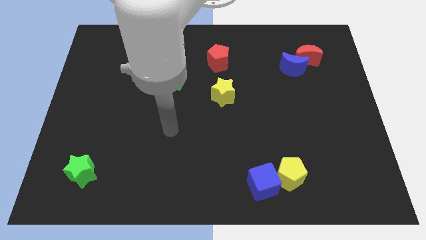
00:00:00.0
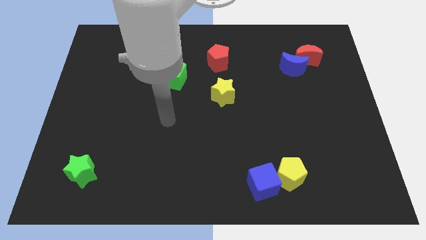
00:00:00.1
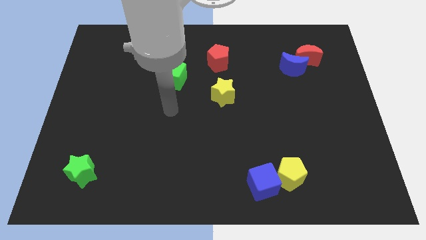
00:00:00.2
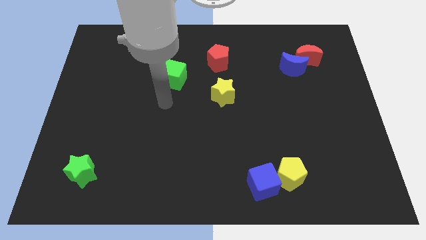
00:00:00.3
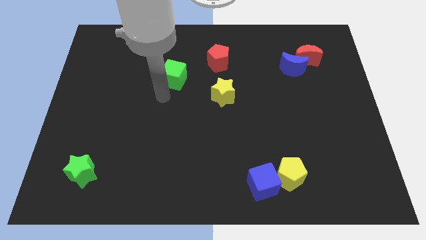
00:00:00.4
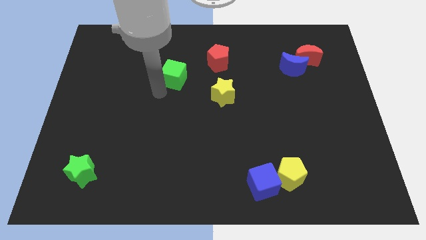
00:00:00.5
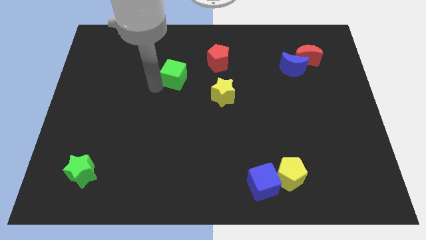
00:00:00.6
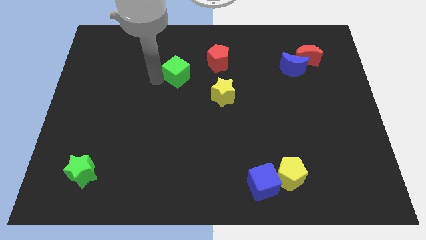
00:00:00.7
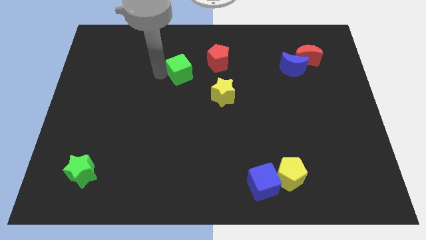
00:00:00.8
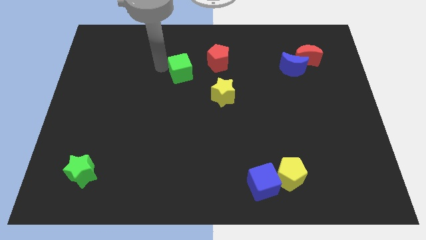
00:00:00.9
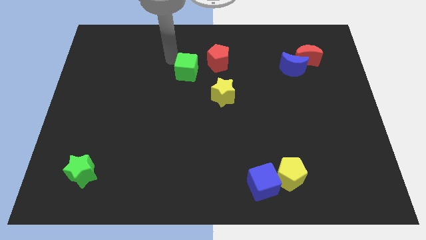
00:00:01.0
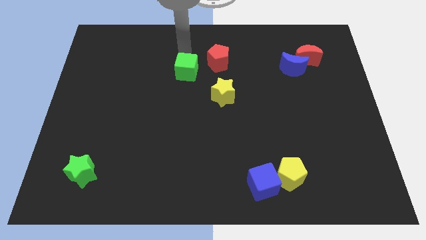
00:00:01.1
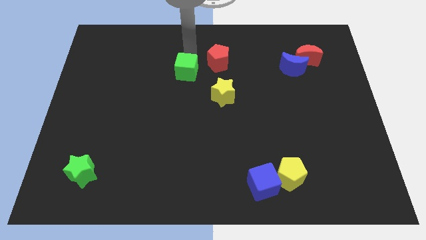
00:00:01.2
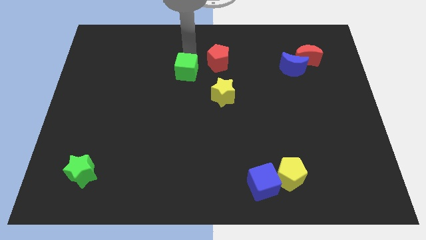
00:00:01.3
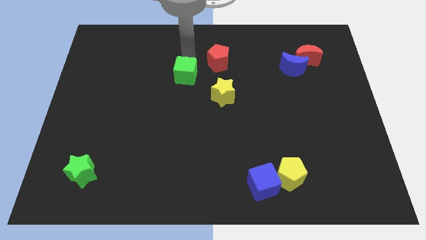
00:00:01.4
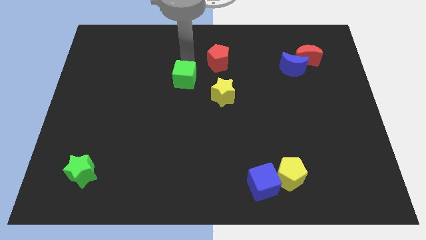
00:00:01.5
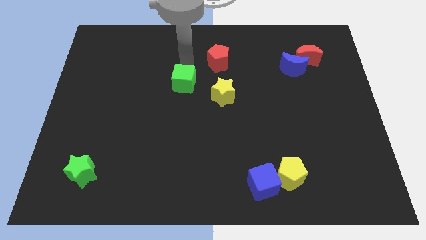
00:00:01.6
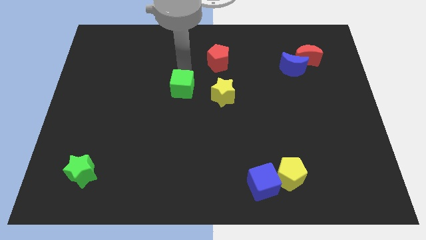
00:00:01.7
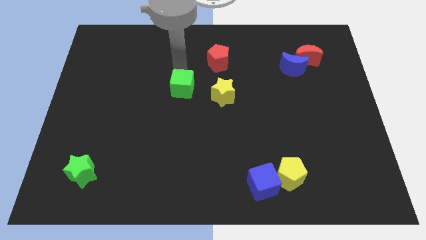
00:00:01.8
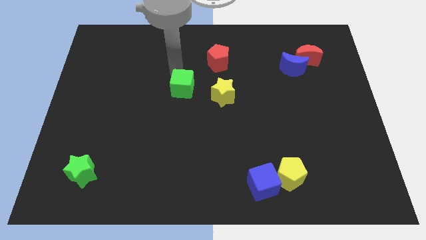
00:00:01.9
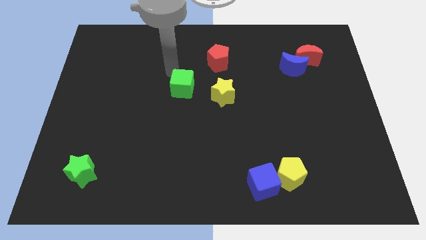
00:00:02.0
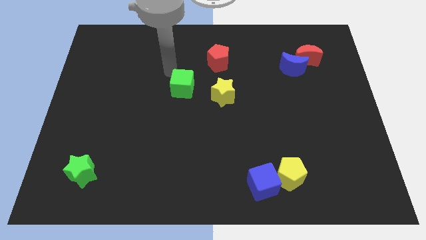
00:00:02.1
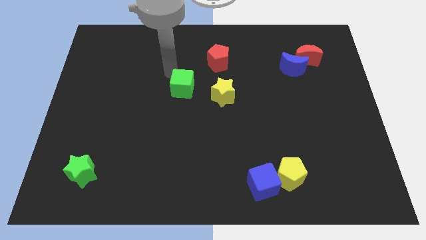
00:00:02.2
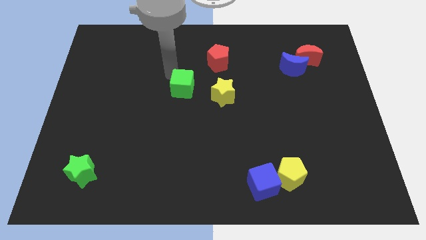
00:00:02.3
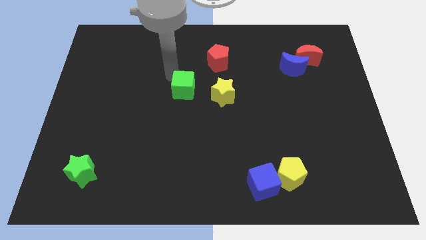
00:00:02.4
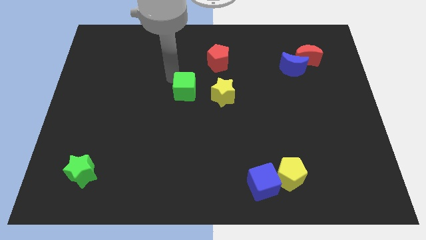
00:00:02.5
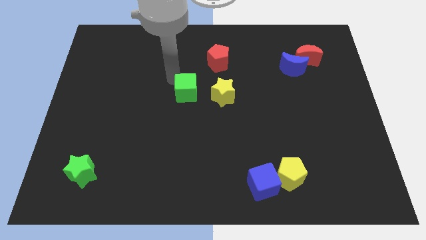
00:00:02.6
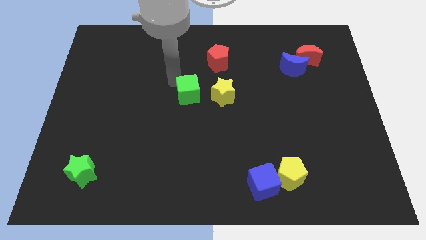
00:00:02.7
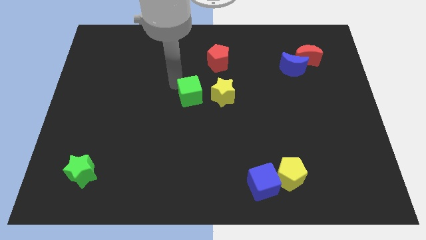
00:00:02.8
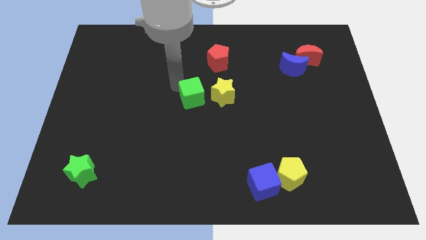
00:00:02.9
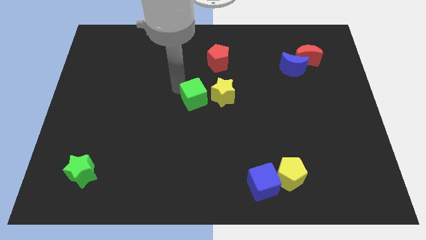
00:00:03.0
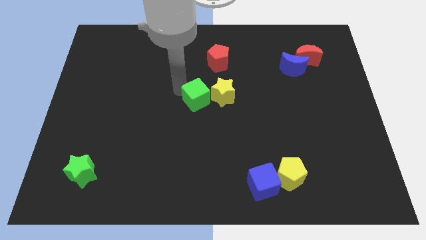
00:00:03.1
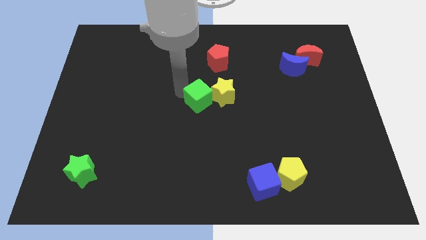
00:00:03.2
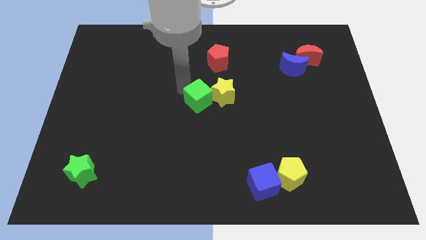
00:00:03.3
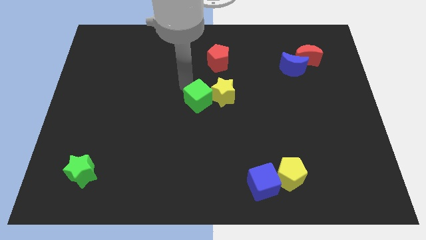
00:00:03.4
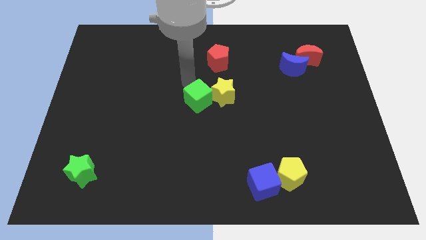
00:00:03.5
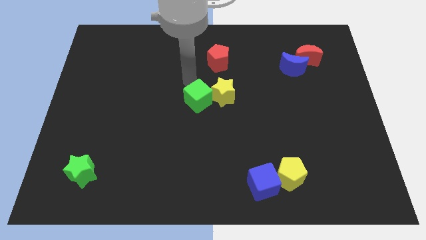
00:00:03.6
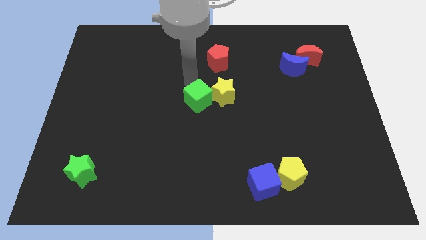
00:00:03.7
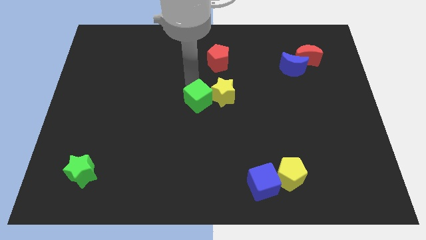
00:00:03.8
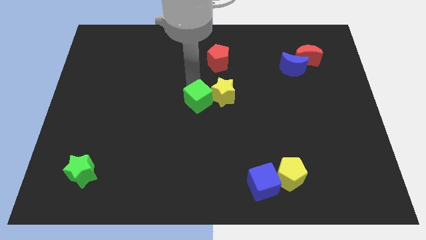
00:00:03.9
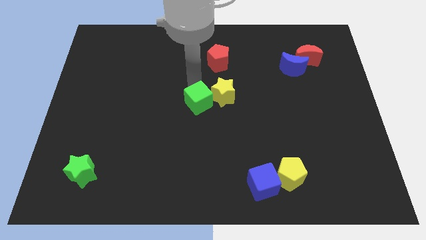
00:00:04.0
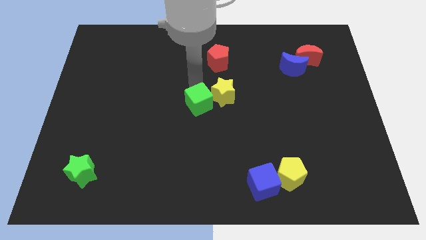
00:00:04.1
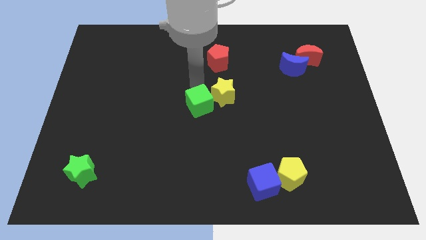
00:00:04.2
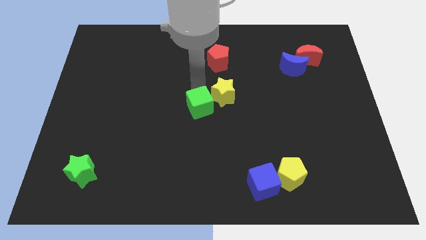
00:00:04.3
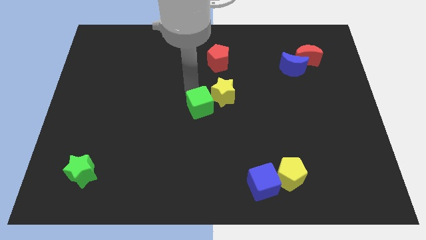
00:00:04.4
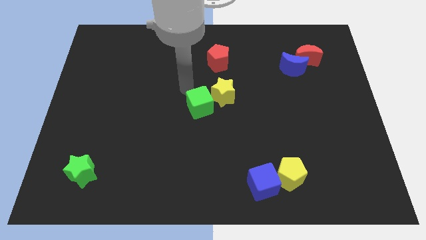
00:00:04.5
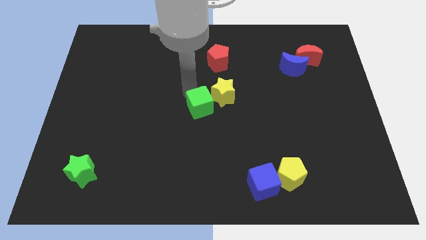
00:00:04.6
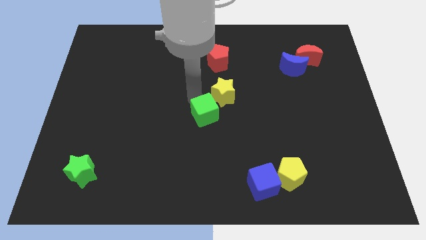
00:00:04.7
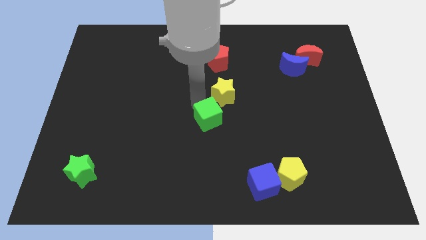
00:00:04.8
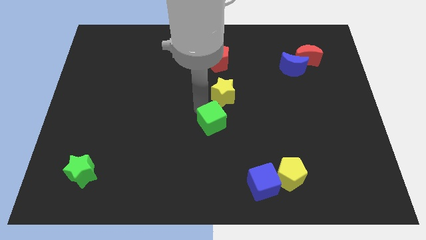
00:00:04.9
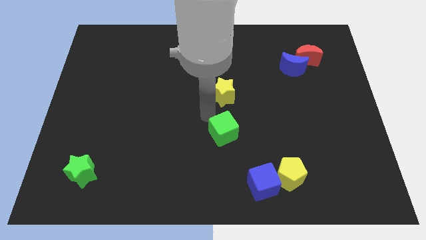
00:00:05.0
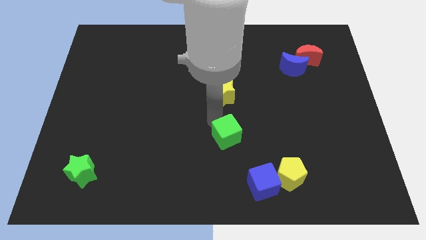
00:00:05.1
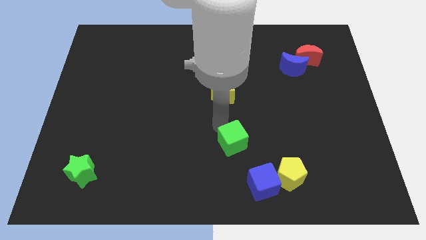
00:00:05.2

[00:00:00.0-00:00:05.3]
put the green cube to the top left of the blue cube

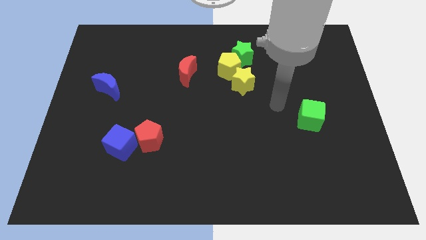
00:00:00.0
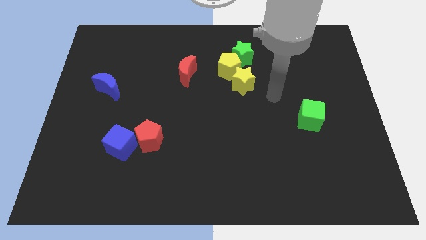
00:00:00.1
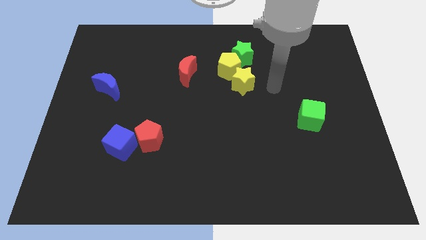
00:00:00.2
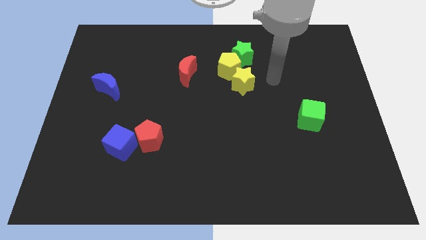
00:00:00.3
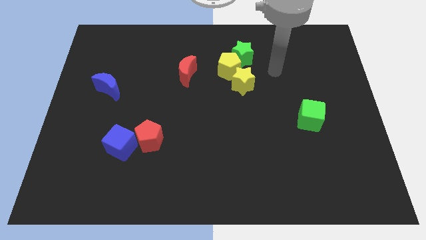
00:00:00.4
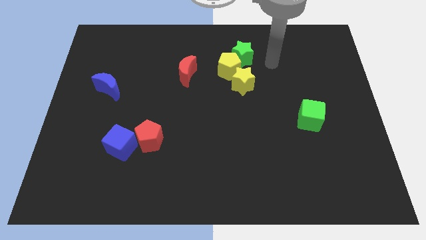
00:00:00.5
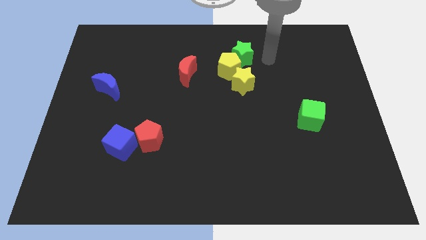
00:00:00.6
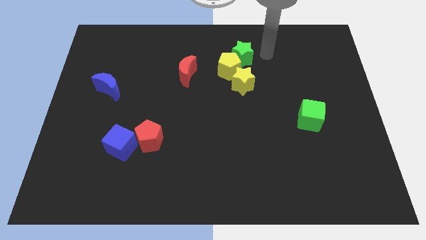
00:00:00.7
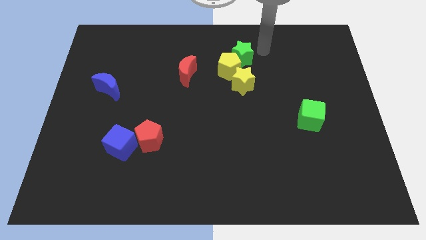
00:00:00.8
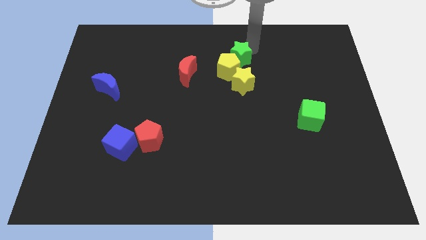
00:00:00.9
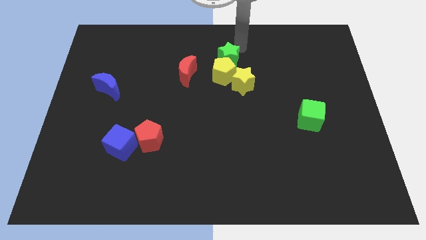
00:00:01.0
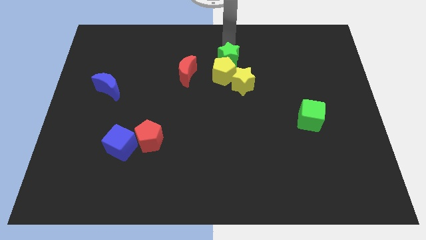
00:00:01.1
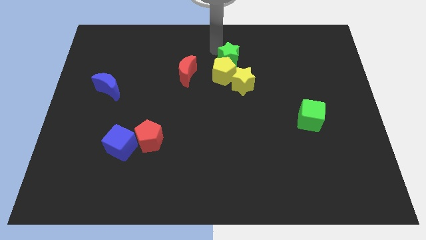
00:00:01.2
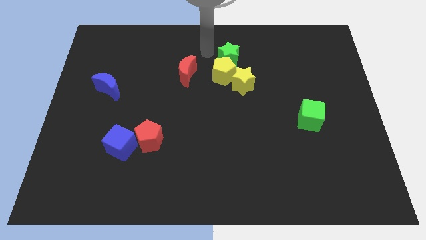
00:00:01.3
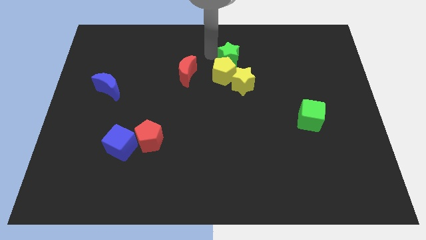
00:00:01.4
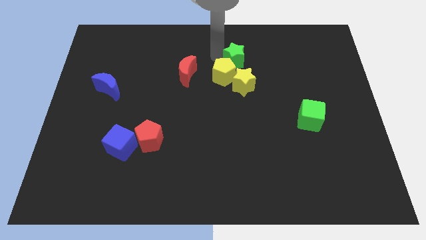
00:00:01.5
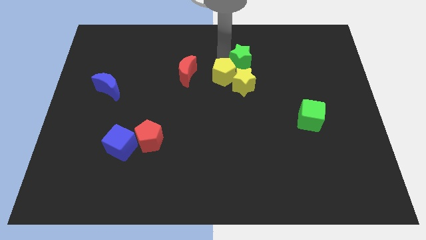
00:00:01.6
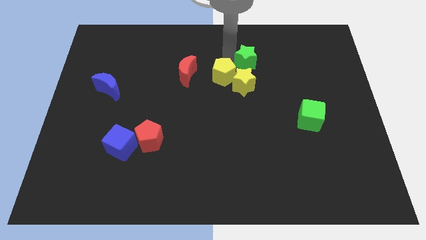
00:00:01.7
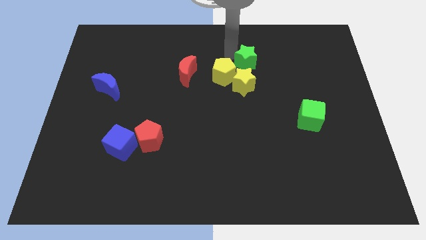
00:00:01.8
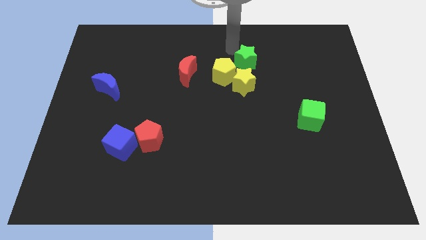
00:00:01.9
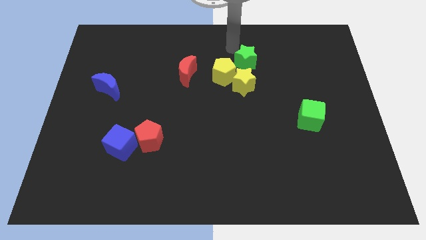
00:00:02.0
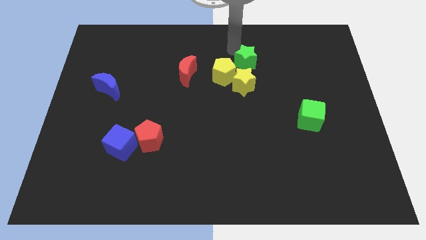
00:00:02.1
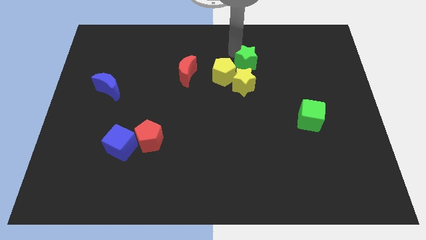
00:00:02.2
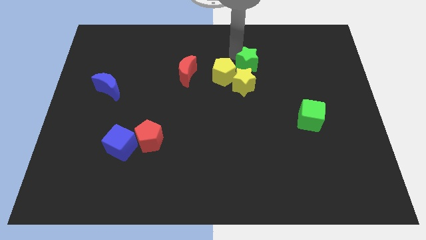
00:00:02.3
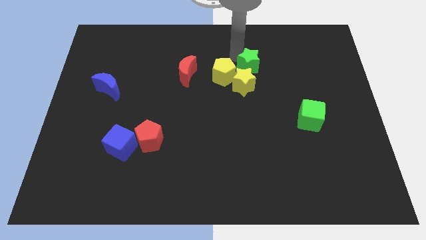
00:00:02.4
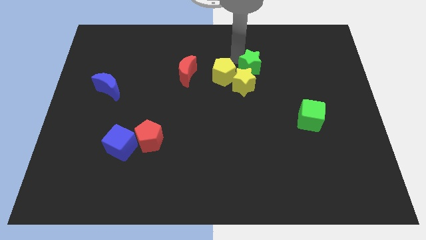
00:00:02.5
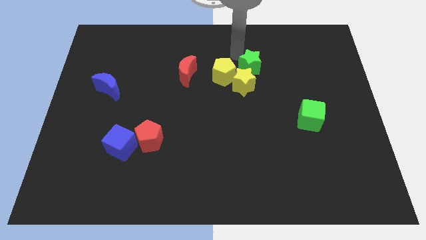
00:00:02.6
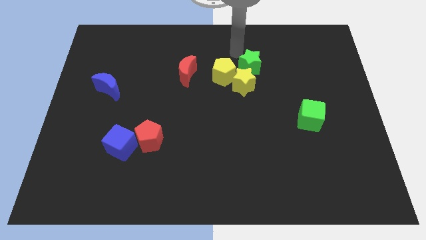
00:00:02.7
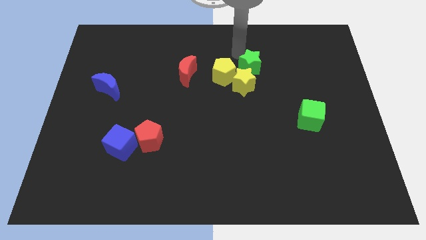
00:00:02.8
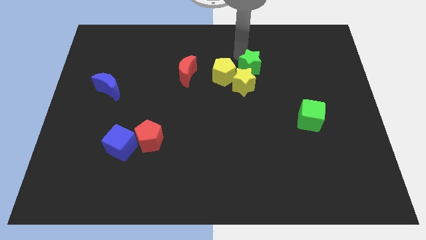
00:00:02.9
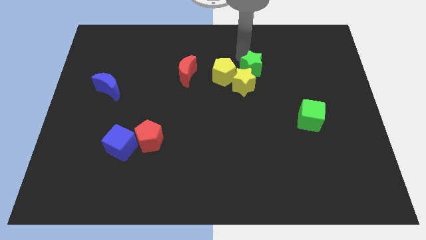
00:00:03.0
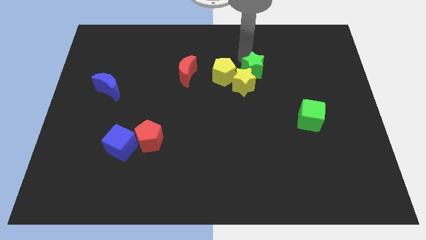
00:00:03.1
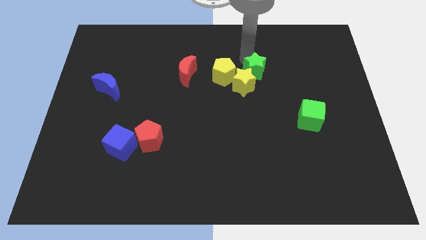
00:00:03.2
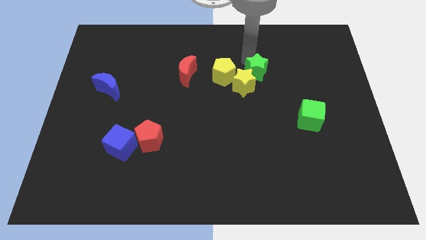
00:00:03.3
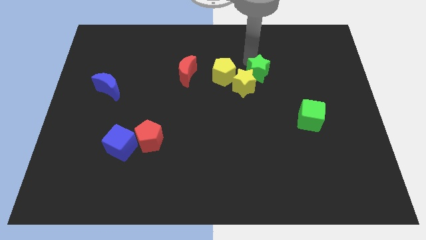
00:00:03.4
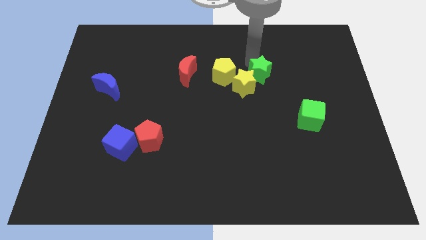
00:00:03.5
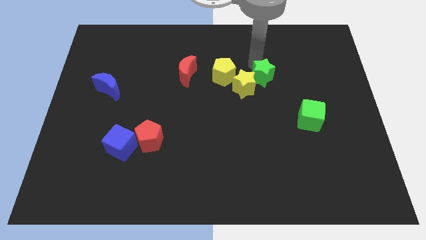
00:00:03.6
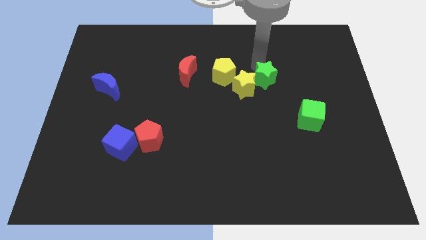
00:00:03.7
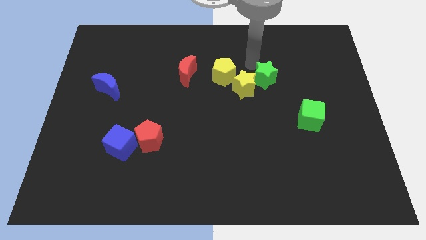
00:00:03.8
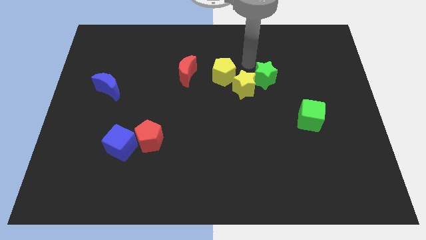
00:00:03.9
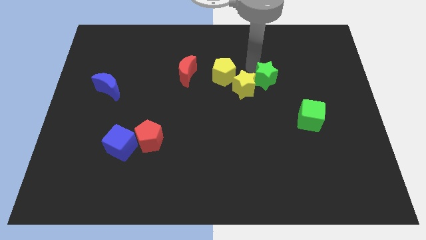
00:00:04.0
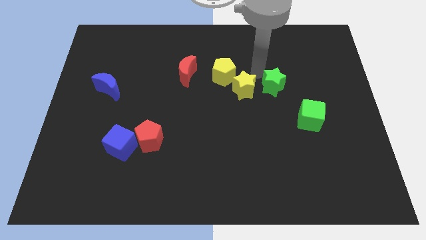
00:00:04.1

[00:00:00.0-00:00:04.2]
push the green star to the top left of the green cube
